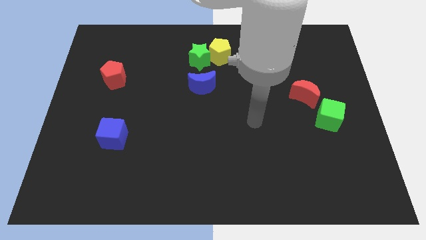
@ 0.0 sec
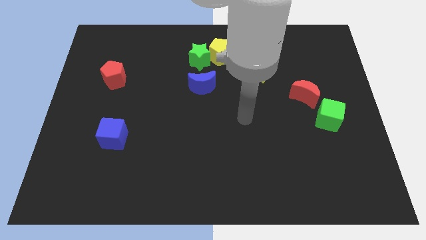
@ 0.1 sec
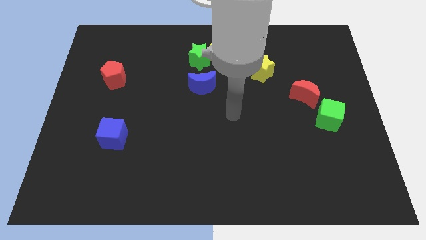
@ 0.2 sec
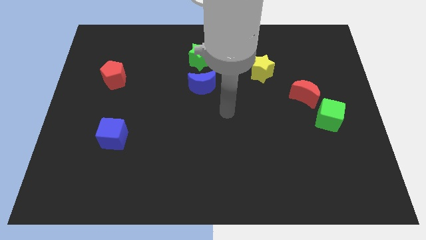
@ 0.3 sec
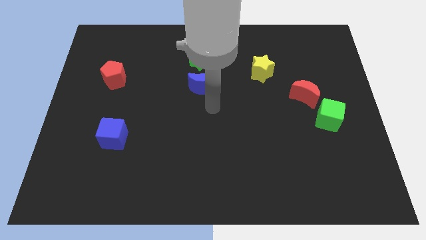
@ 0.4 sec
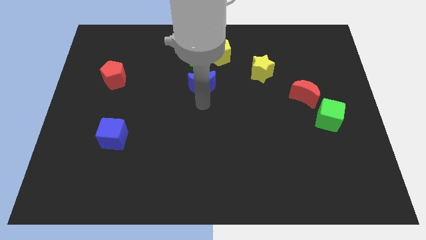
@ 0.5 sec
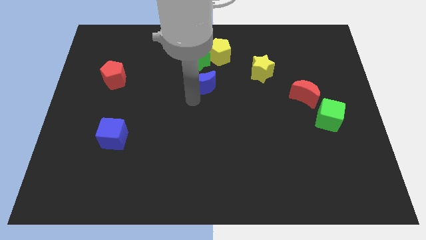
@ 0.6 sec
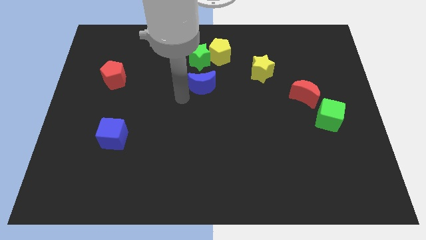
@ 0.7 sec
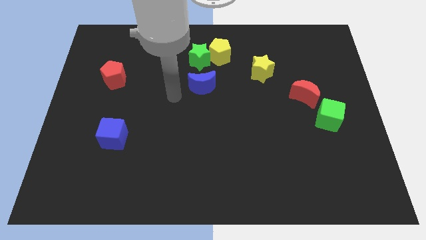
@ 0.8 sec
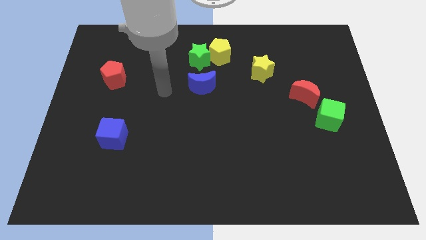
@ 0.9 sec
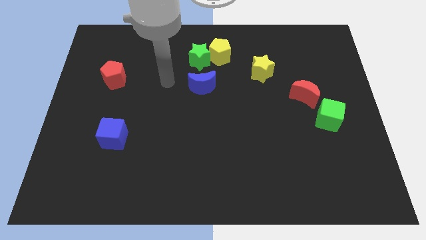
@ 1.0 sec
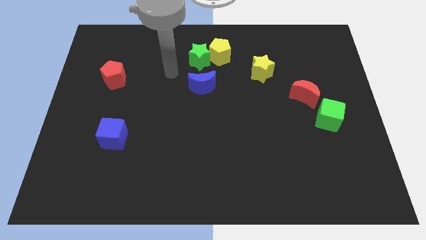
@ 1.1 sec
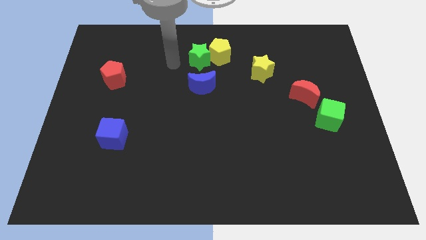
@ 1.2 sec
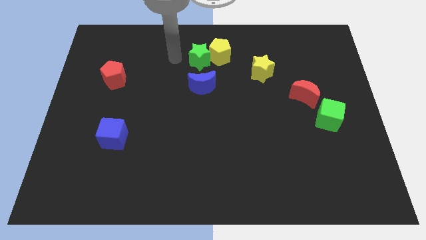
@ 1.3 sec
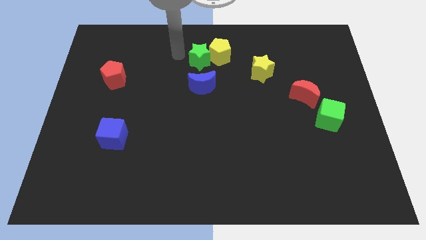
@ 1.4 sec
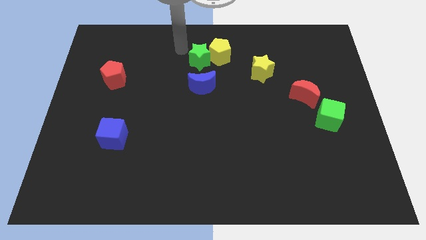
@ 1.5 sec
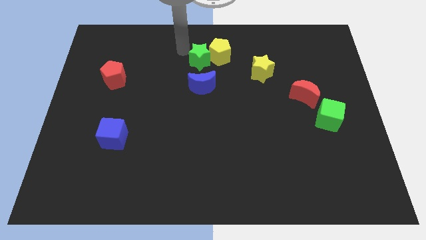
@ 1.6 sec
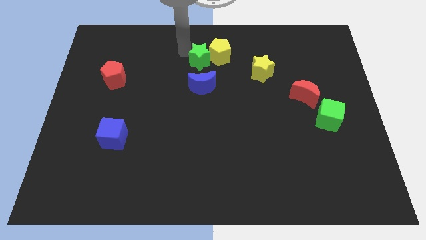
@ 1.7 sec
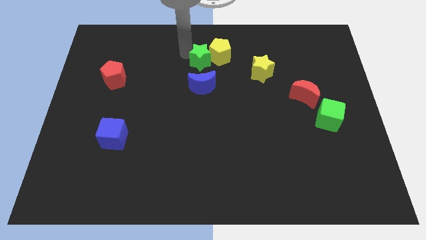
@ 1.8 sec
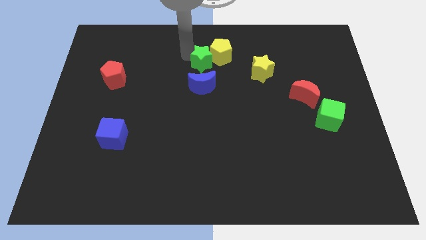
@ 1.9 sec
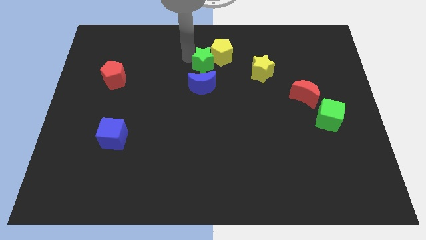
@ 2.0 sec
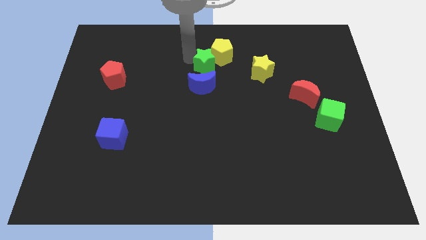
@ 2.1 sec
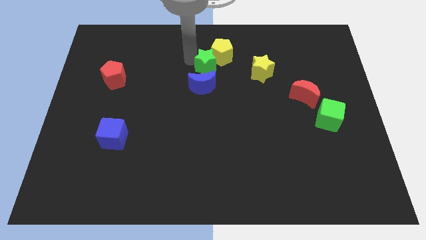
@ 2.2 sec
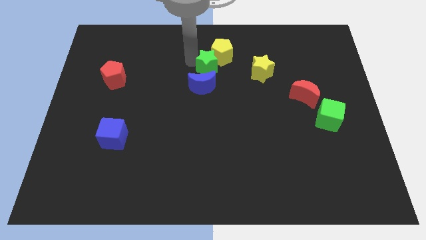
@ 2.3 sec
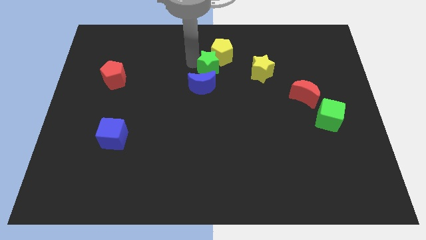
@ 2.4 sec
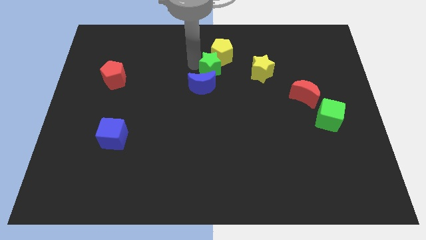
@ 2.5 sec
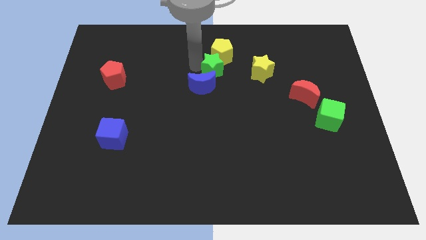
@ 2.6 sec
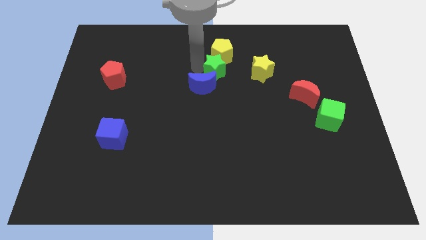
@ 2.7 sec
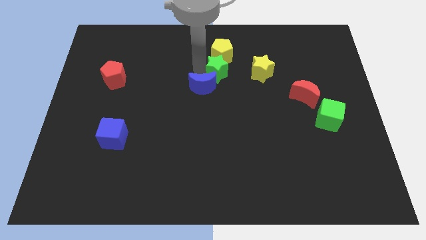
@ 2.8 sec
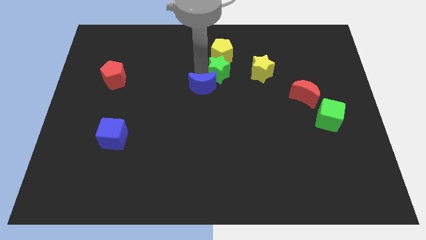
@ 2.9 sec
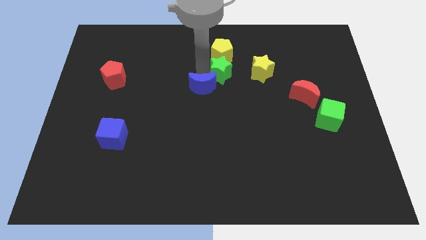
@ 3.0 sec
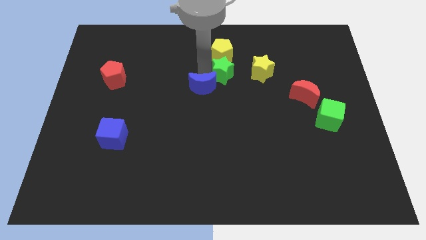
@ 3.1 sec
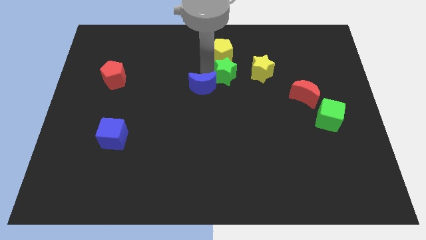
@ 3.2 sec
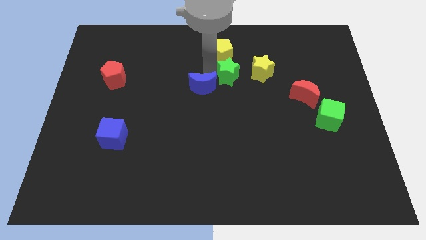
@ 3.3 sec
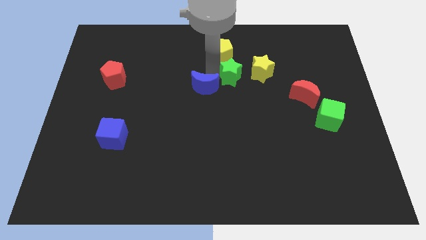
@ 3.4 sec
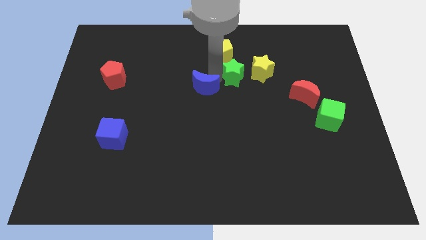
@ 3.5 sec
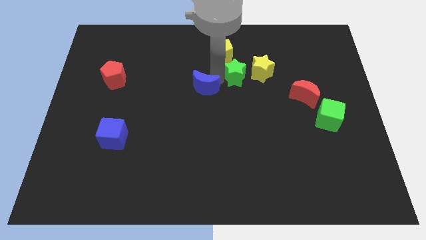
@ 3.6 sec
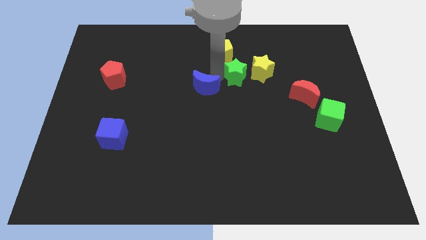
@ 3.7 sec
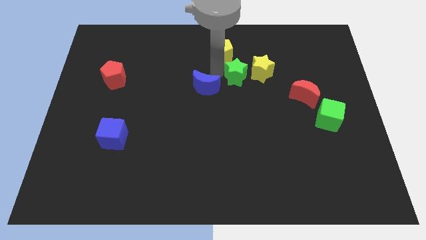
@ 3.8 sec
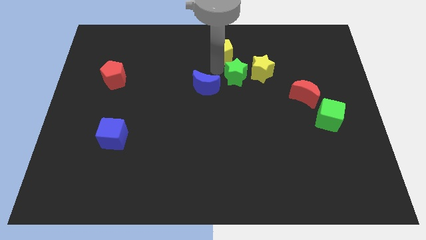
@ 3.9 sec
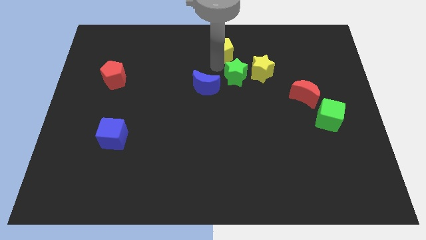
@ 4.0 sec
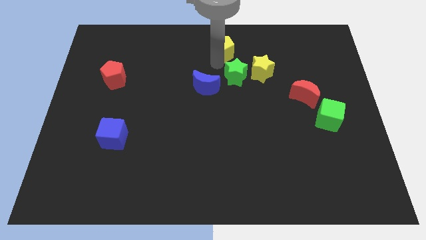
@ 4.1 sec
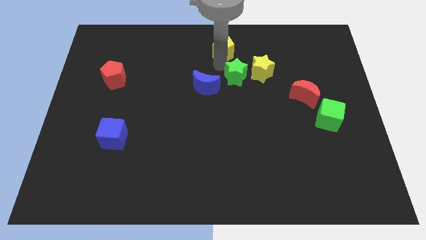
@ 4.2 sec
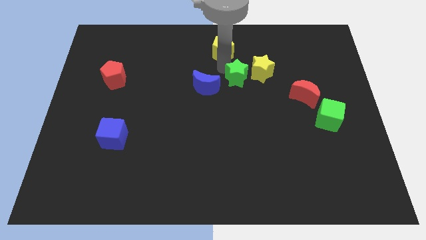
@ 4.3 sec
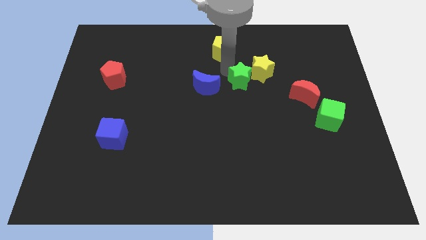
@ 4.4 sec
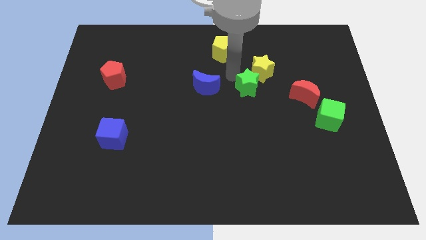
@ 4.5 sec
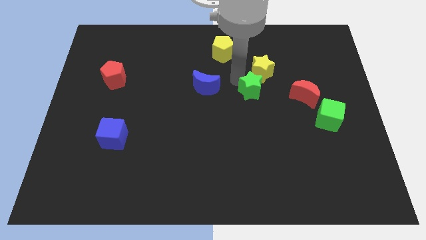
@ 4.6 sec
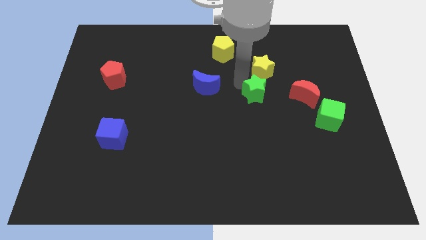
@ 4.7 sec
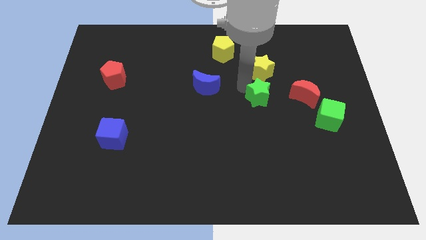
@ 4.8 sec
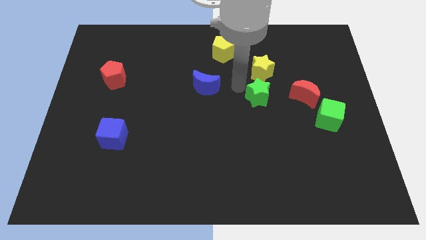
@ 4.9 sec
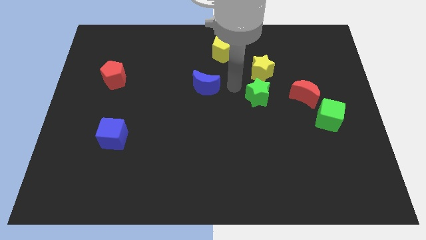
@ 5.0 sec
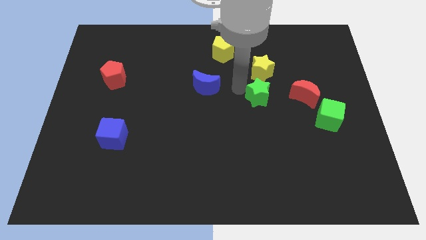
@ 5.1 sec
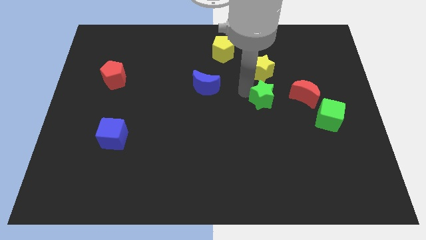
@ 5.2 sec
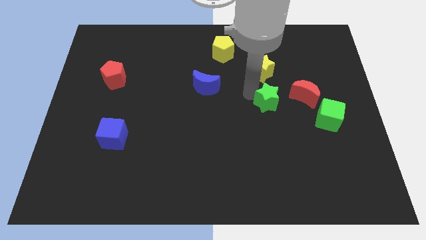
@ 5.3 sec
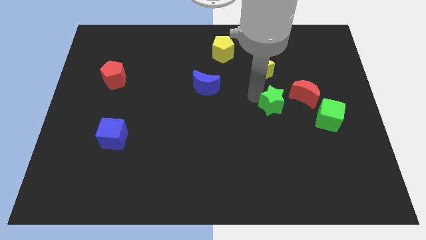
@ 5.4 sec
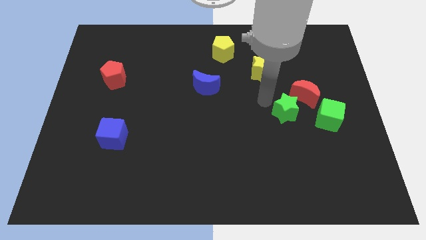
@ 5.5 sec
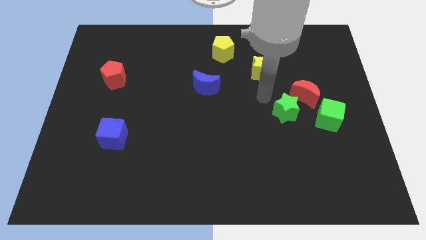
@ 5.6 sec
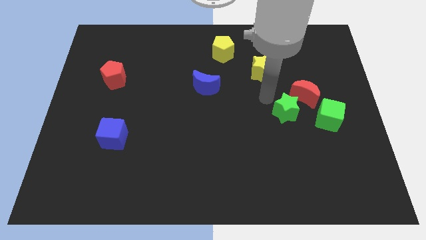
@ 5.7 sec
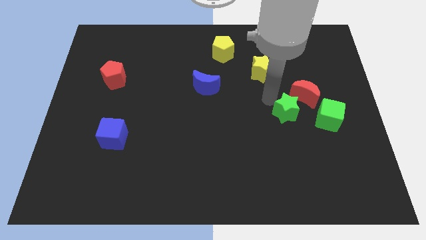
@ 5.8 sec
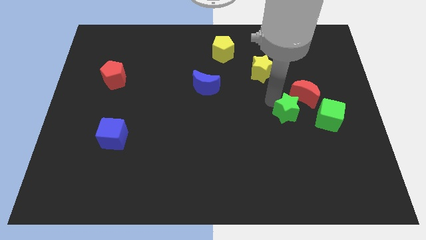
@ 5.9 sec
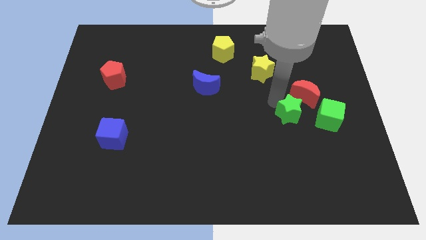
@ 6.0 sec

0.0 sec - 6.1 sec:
slide the green star to the bottom side of the red moon

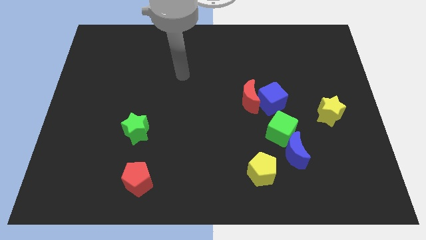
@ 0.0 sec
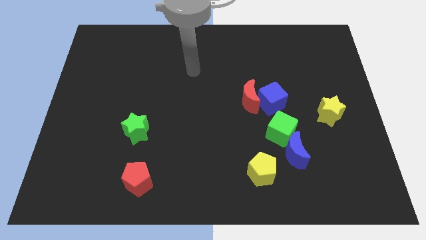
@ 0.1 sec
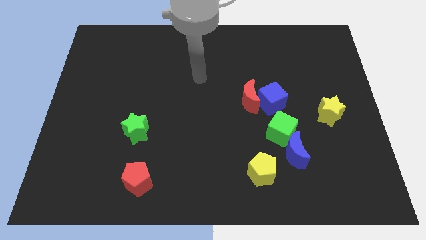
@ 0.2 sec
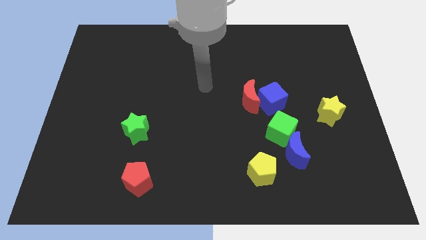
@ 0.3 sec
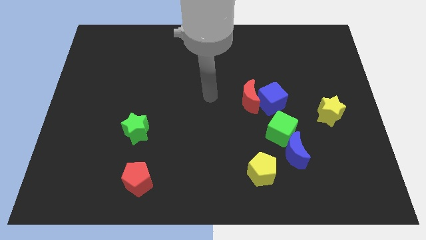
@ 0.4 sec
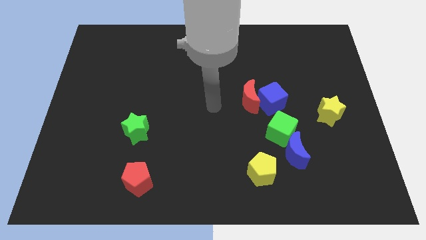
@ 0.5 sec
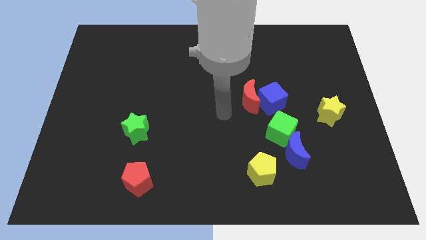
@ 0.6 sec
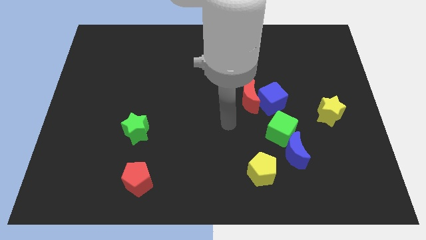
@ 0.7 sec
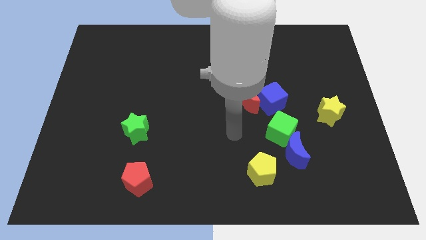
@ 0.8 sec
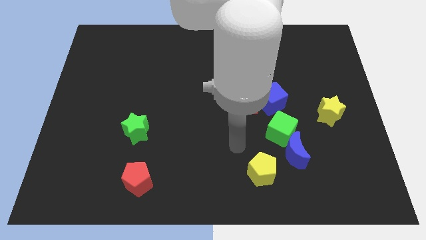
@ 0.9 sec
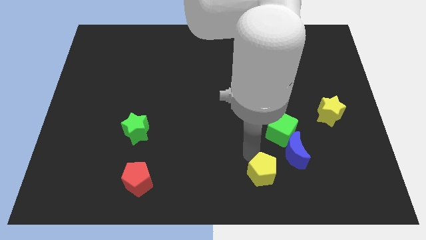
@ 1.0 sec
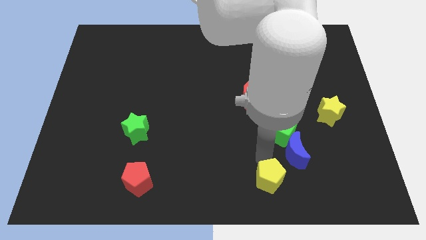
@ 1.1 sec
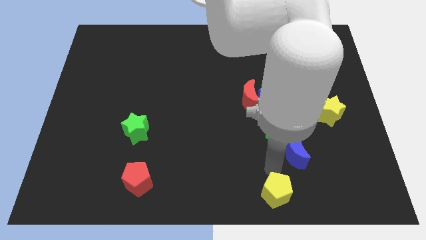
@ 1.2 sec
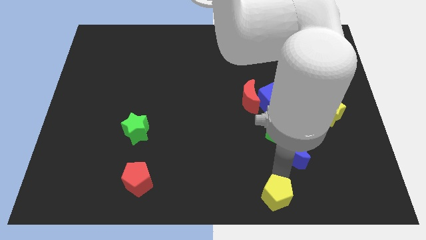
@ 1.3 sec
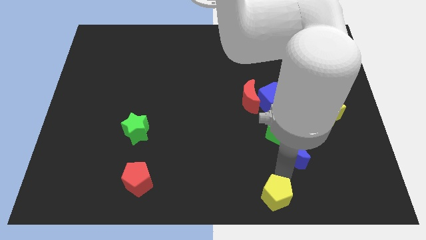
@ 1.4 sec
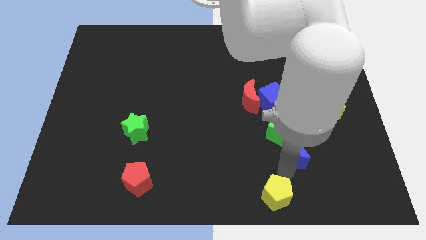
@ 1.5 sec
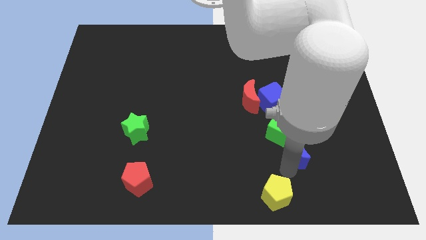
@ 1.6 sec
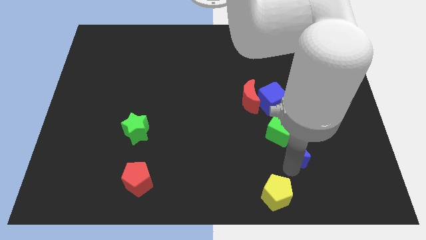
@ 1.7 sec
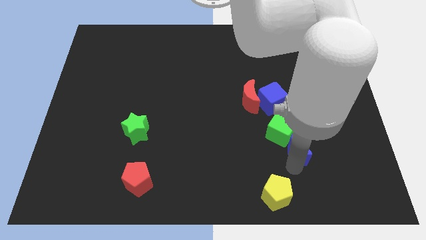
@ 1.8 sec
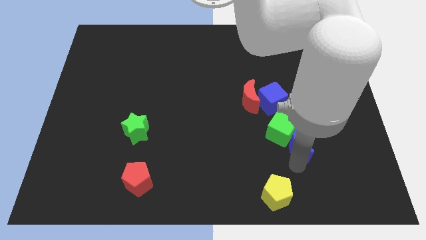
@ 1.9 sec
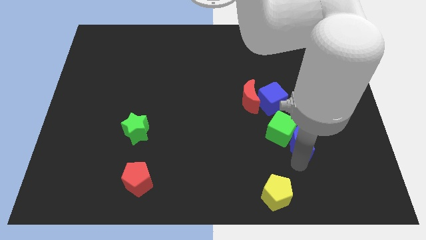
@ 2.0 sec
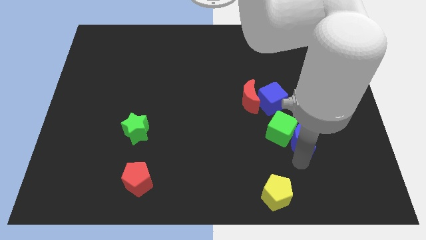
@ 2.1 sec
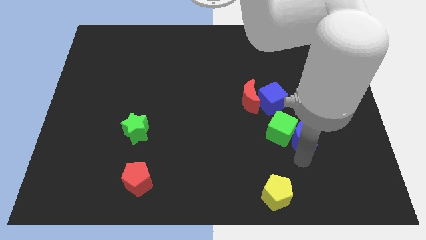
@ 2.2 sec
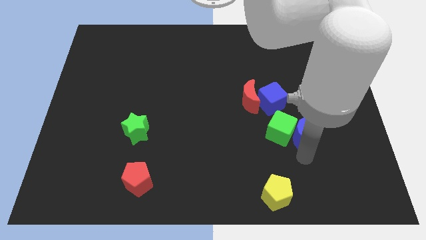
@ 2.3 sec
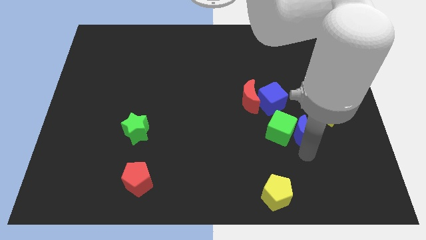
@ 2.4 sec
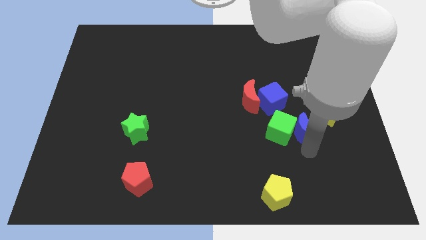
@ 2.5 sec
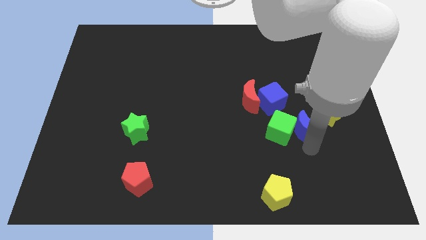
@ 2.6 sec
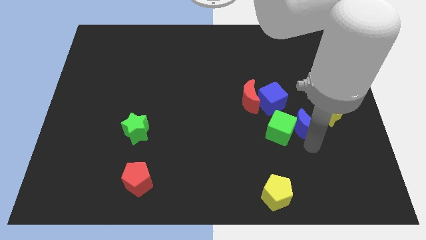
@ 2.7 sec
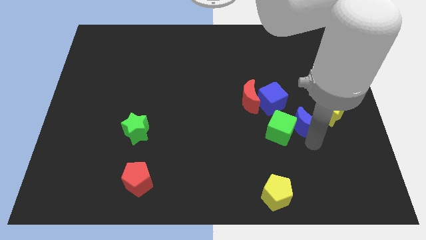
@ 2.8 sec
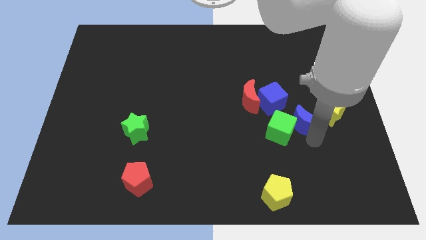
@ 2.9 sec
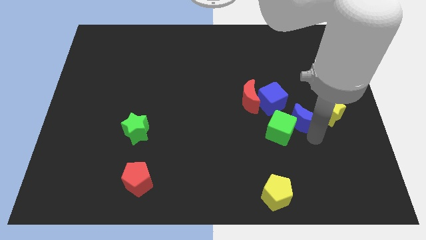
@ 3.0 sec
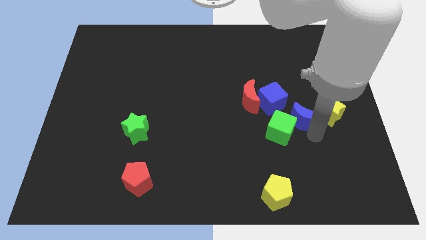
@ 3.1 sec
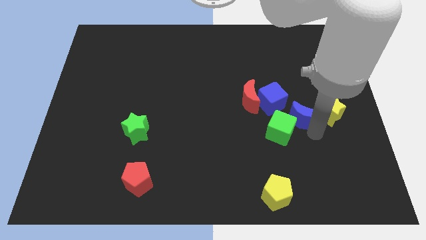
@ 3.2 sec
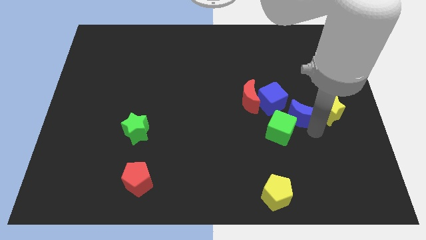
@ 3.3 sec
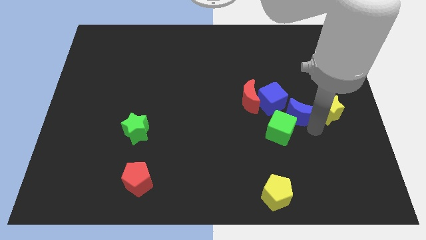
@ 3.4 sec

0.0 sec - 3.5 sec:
slide the blue moon above the green cube
